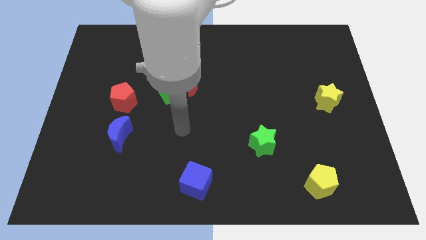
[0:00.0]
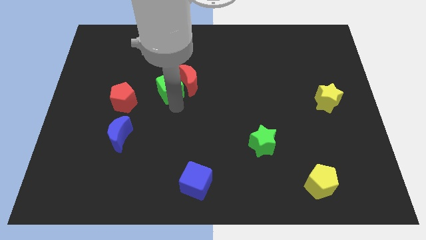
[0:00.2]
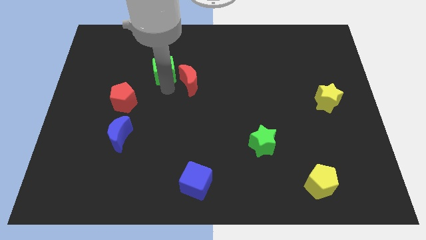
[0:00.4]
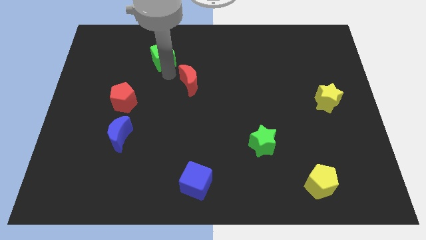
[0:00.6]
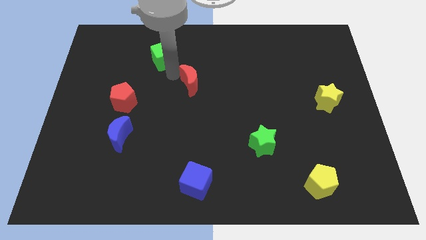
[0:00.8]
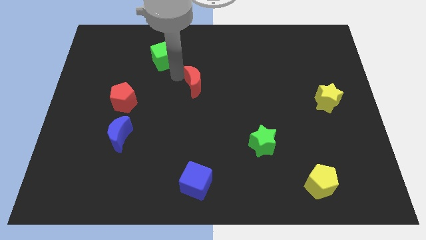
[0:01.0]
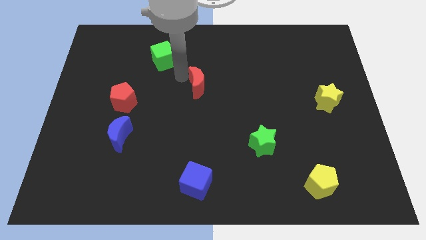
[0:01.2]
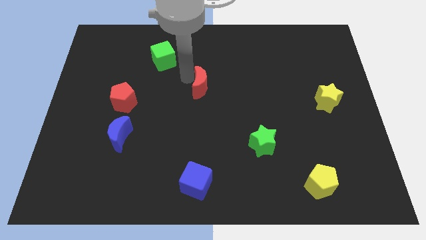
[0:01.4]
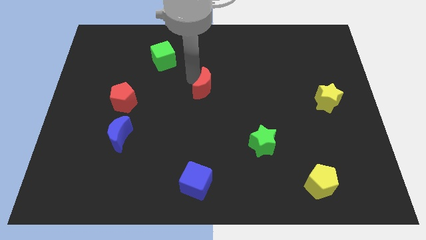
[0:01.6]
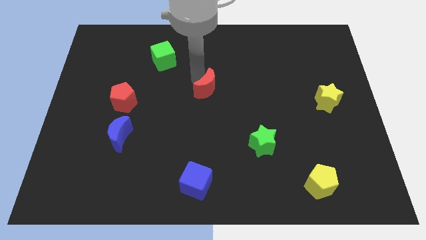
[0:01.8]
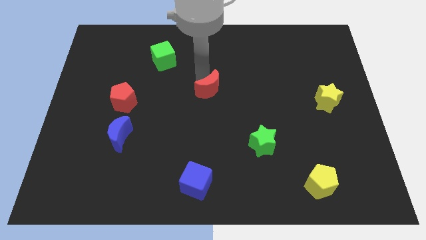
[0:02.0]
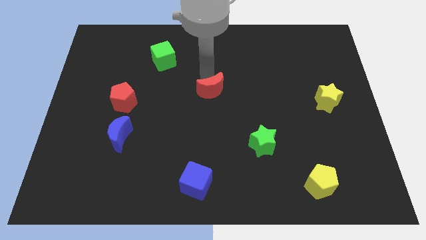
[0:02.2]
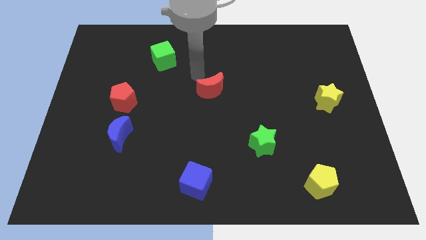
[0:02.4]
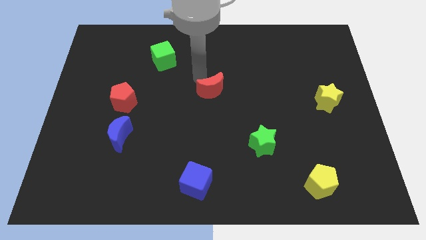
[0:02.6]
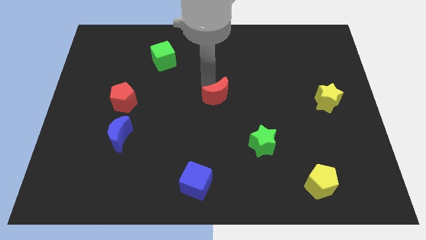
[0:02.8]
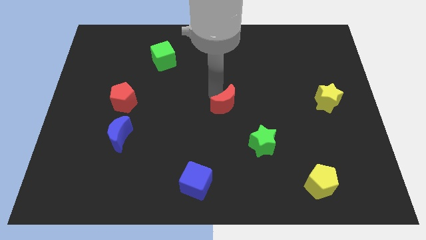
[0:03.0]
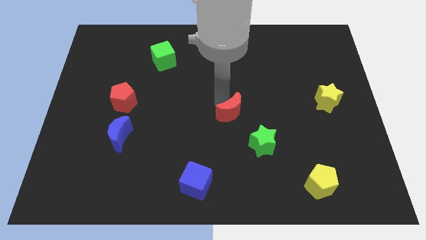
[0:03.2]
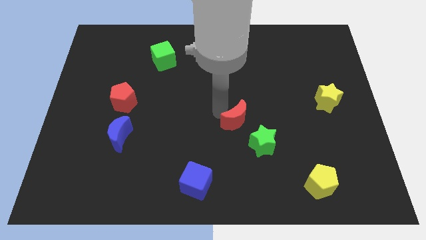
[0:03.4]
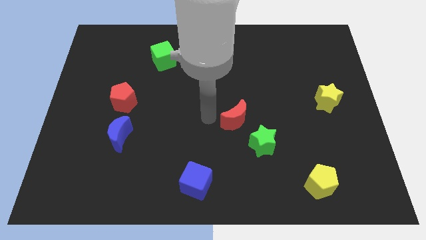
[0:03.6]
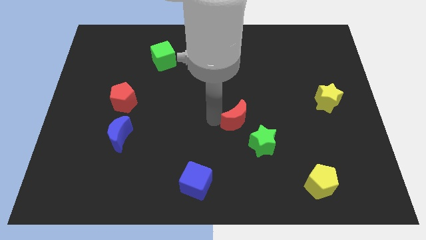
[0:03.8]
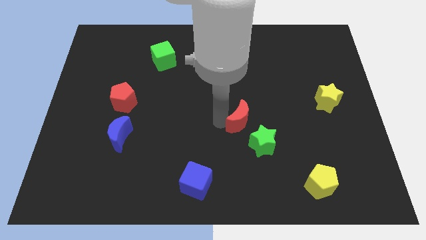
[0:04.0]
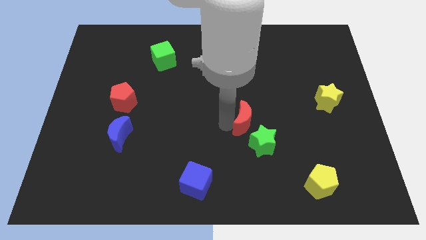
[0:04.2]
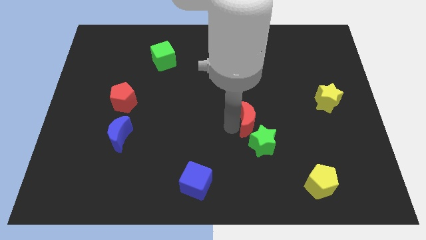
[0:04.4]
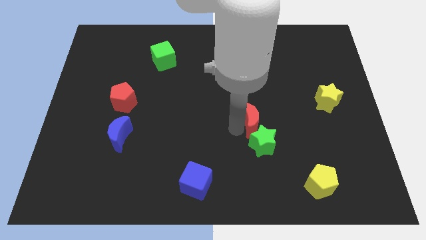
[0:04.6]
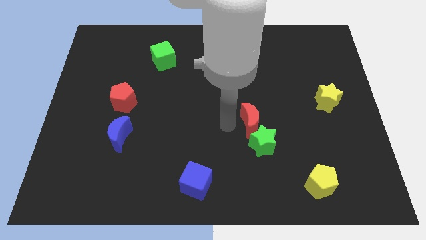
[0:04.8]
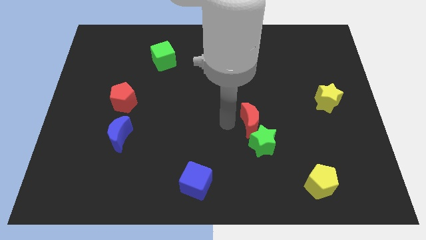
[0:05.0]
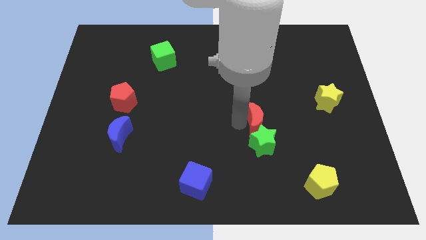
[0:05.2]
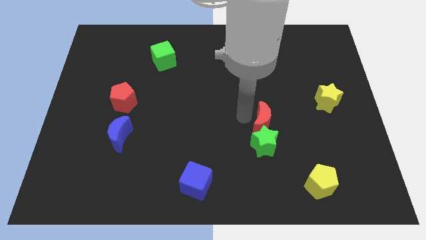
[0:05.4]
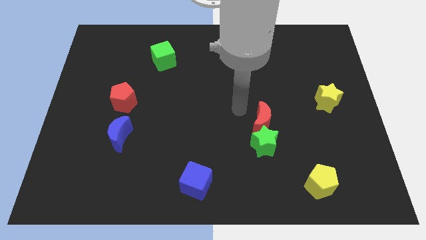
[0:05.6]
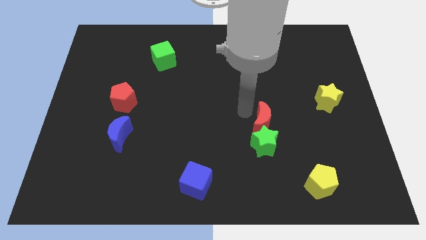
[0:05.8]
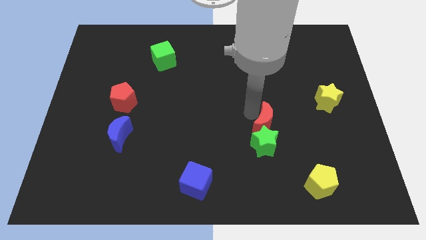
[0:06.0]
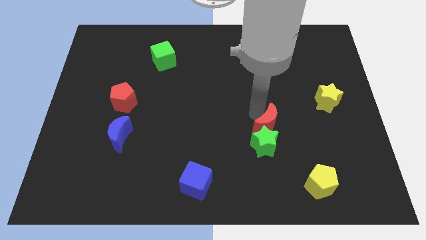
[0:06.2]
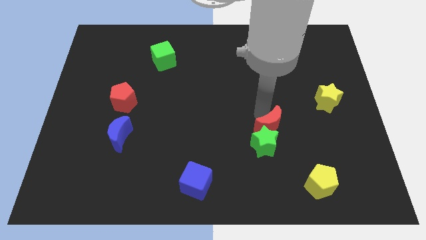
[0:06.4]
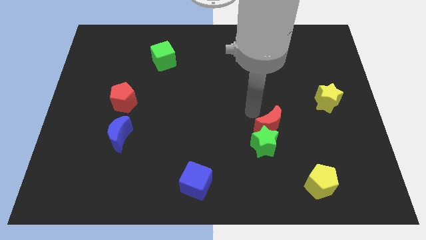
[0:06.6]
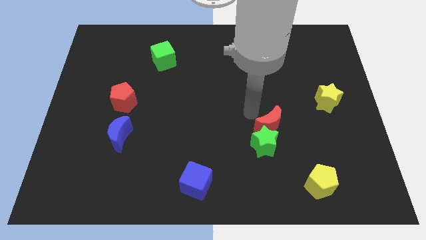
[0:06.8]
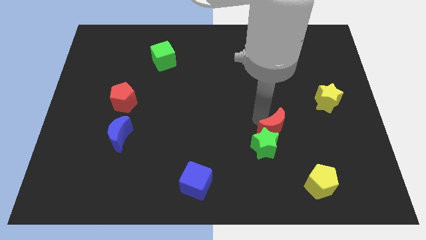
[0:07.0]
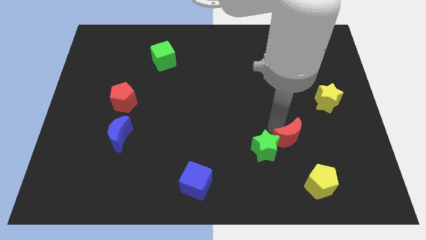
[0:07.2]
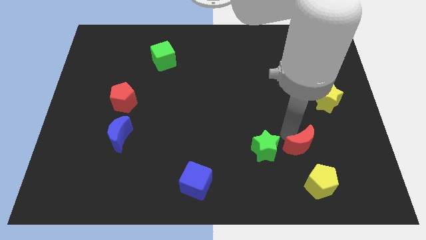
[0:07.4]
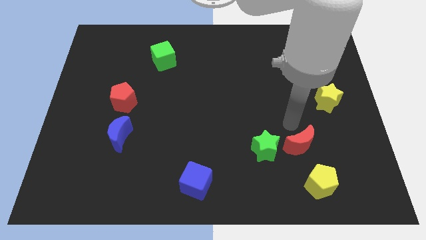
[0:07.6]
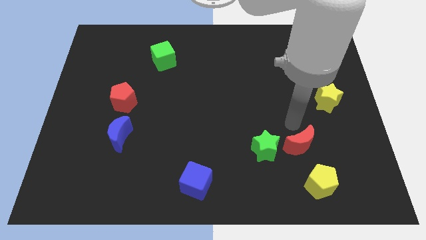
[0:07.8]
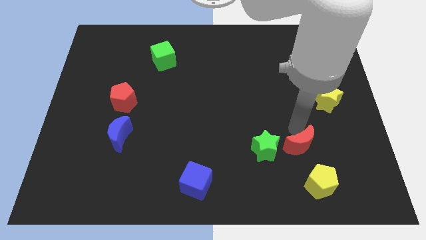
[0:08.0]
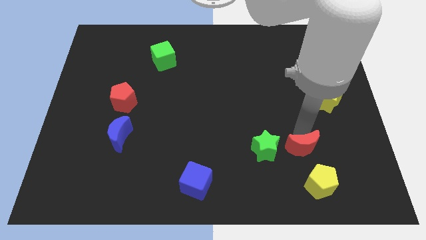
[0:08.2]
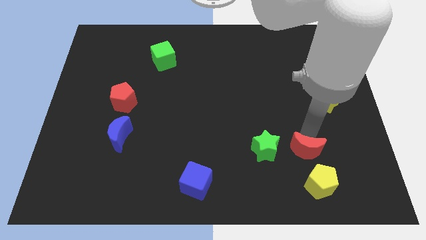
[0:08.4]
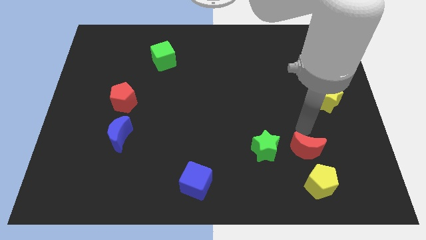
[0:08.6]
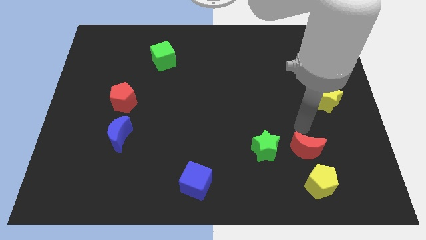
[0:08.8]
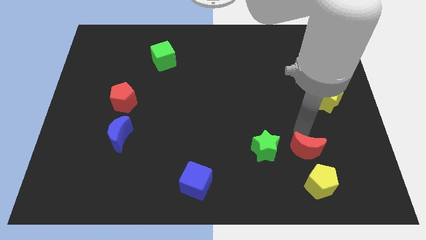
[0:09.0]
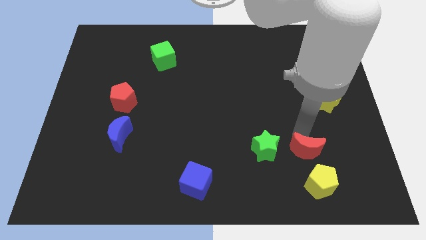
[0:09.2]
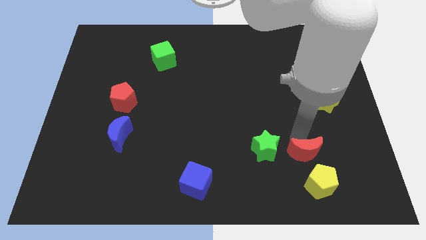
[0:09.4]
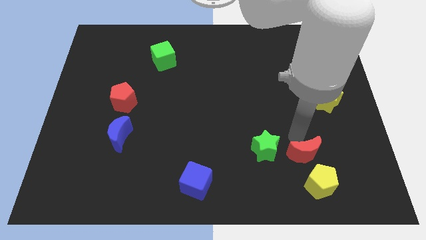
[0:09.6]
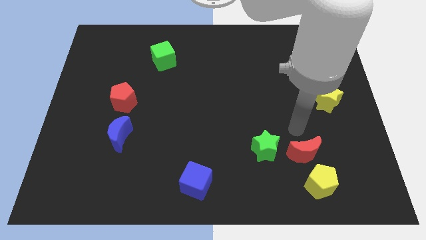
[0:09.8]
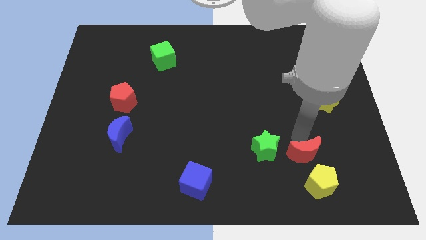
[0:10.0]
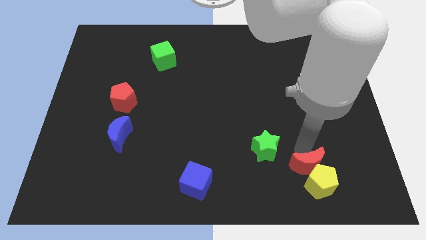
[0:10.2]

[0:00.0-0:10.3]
put the red moon to the yellow pentagon

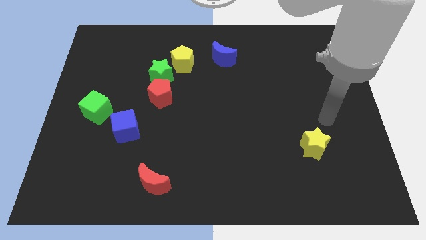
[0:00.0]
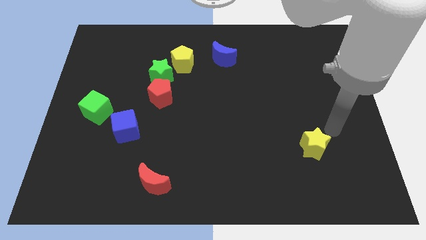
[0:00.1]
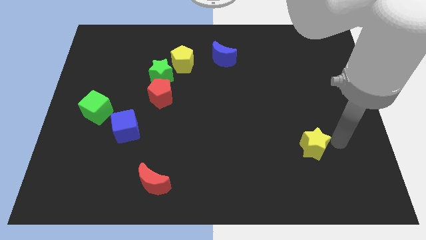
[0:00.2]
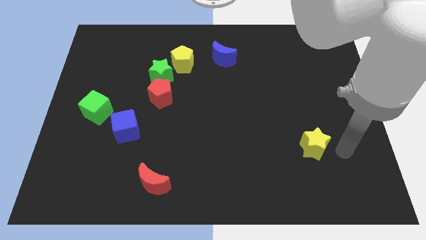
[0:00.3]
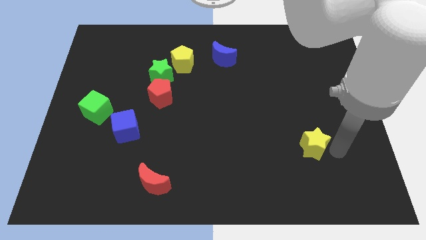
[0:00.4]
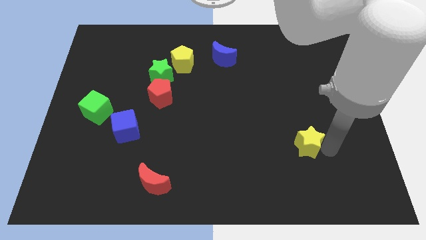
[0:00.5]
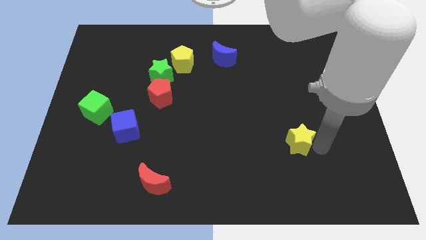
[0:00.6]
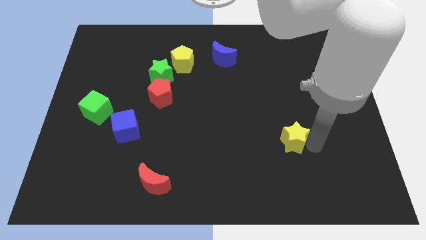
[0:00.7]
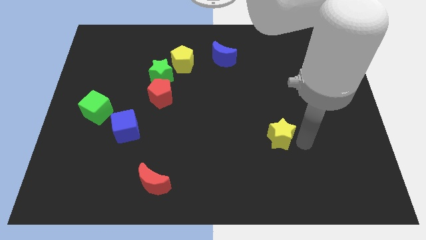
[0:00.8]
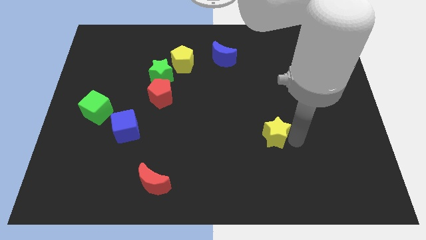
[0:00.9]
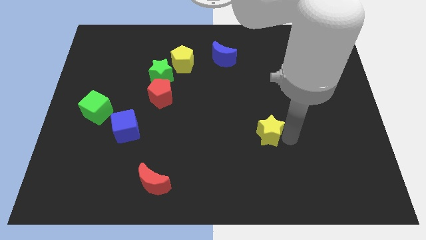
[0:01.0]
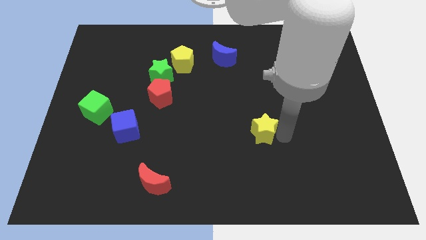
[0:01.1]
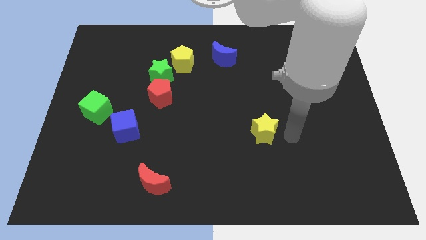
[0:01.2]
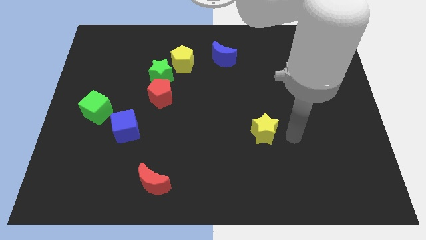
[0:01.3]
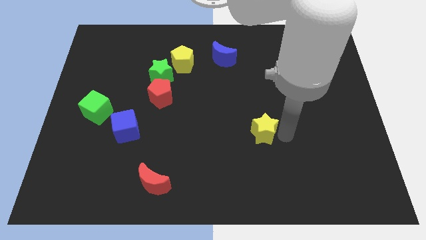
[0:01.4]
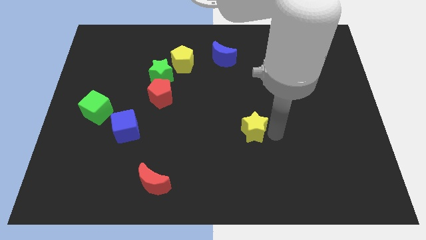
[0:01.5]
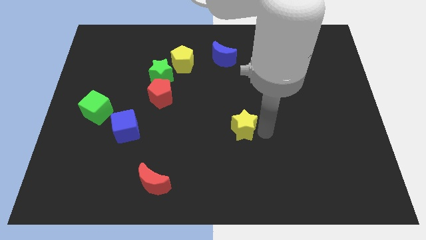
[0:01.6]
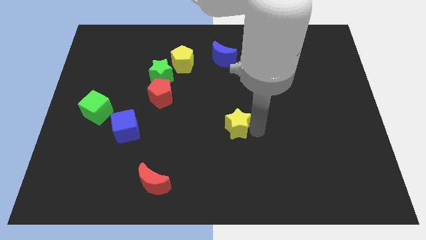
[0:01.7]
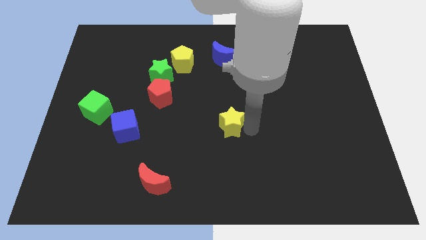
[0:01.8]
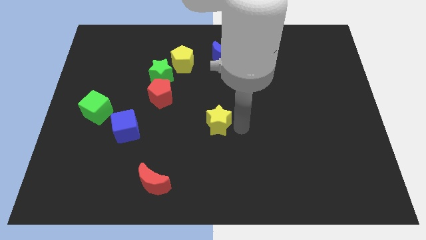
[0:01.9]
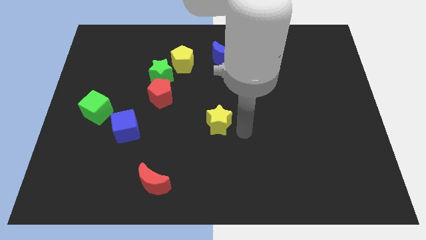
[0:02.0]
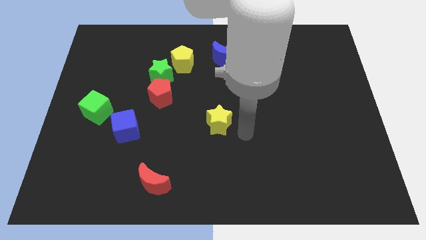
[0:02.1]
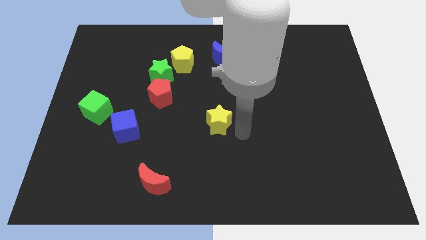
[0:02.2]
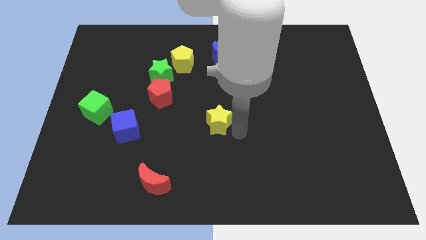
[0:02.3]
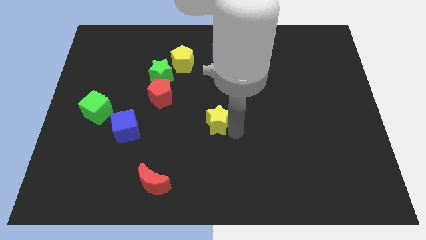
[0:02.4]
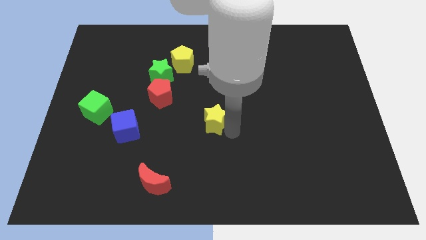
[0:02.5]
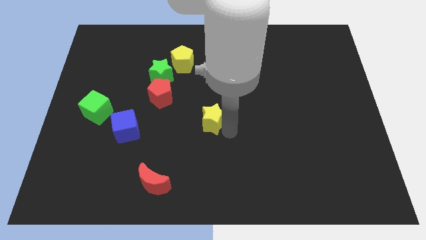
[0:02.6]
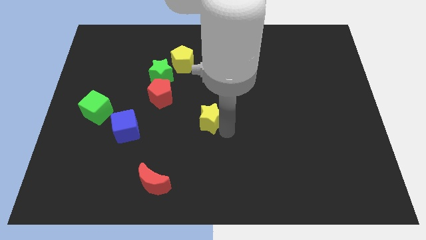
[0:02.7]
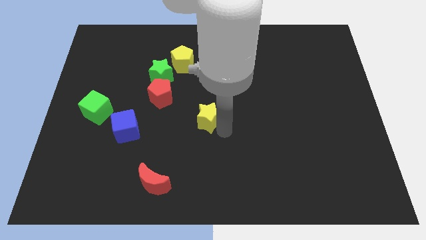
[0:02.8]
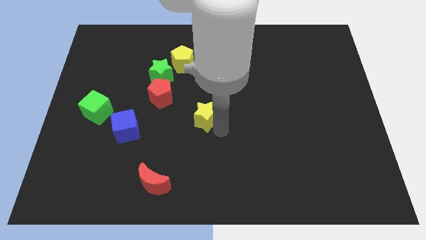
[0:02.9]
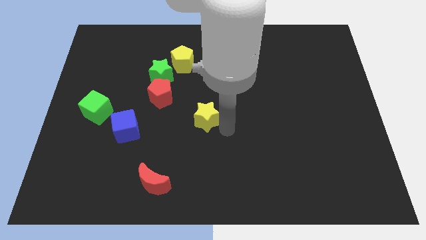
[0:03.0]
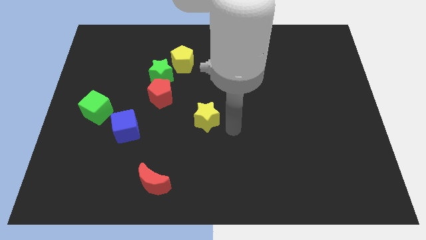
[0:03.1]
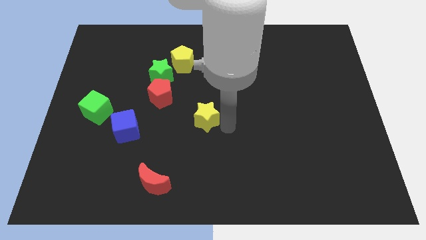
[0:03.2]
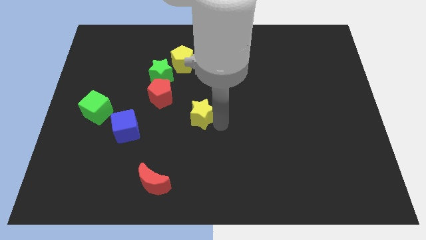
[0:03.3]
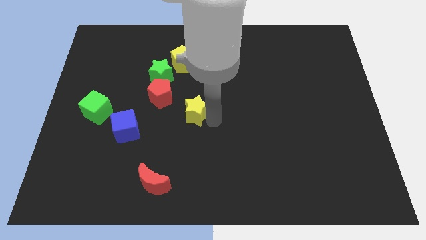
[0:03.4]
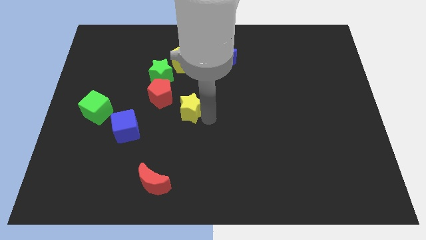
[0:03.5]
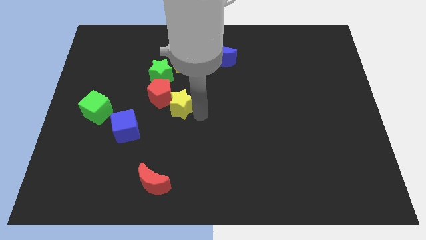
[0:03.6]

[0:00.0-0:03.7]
put the yellow star next to the red pentagon
